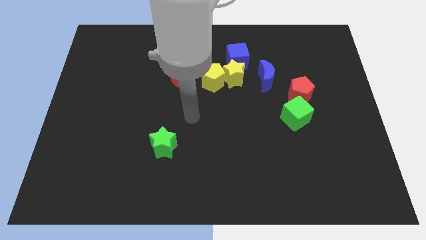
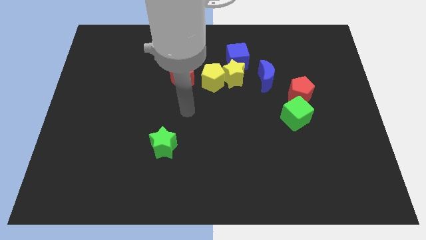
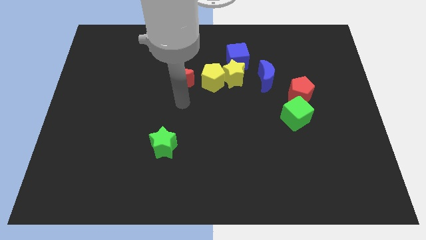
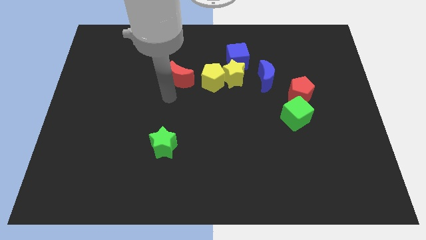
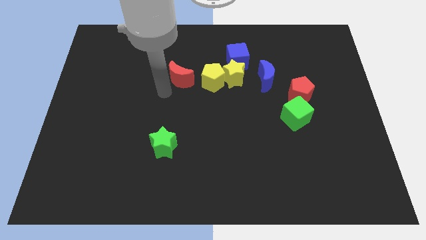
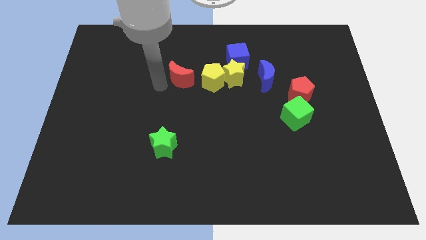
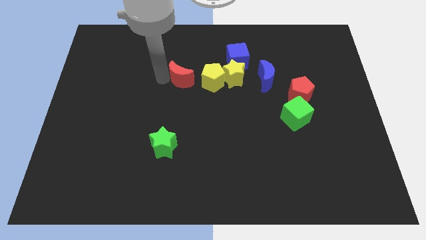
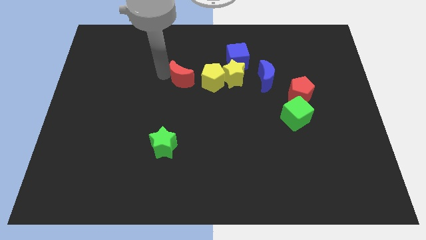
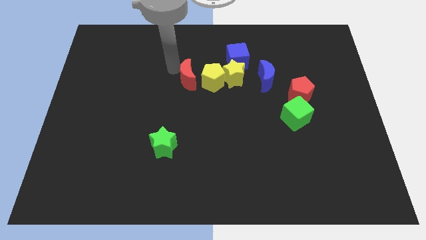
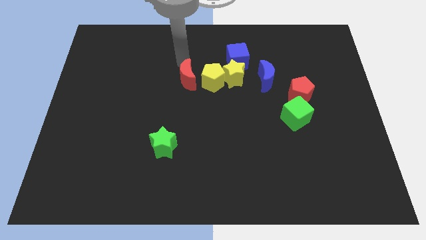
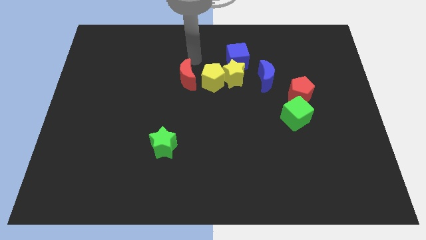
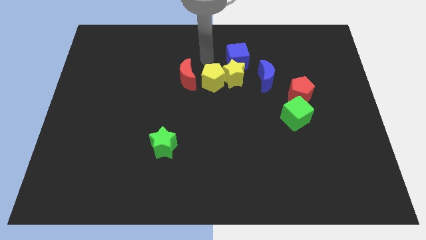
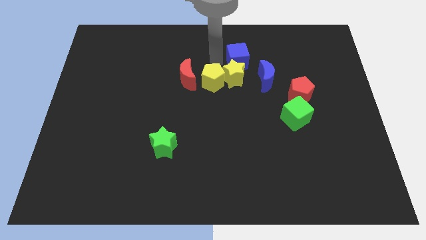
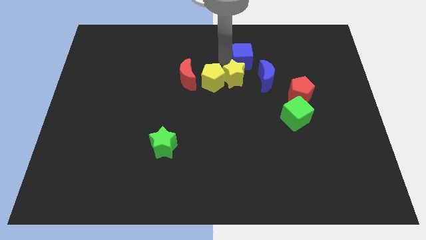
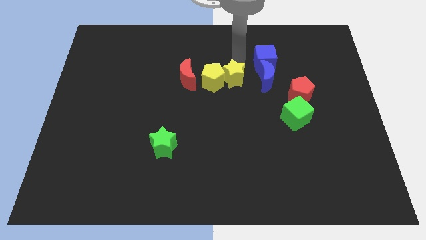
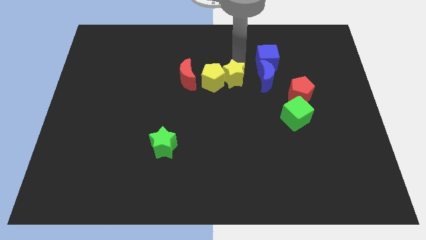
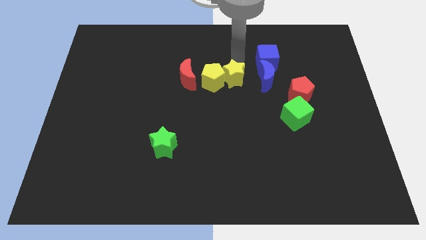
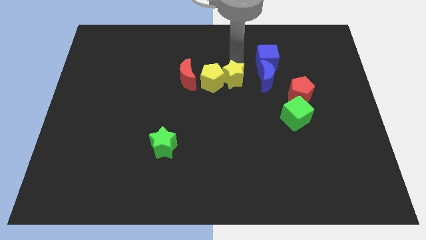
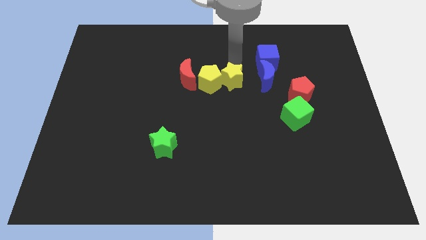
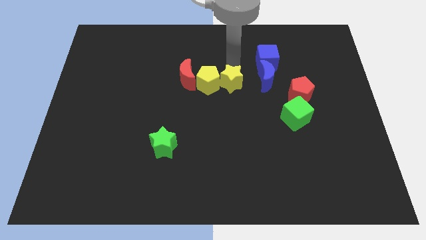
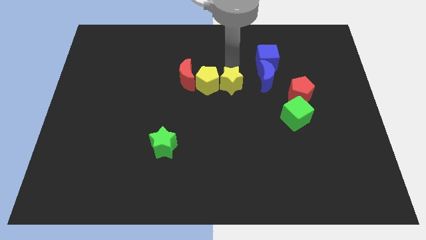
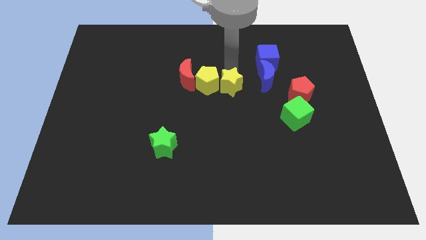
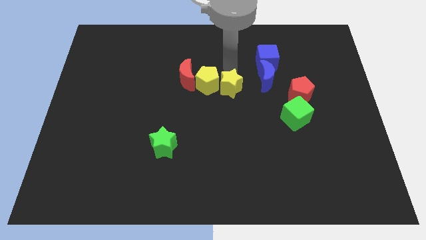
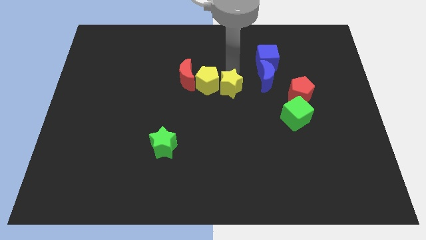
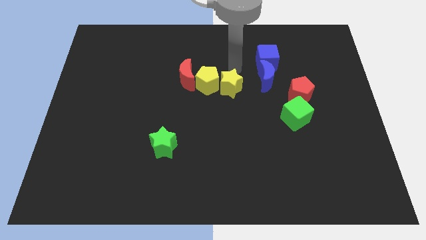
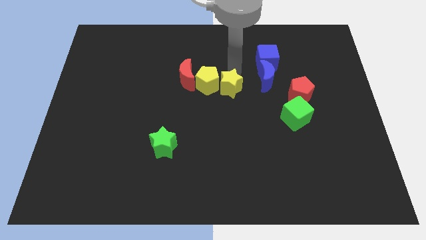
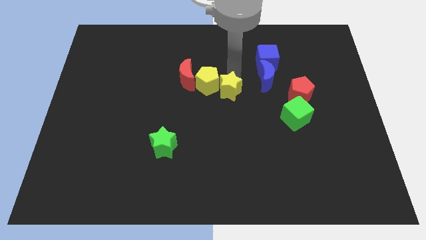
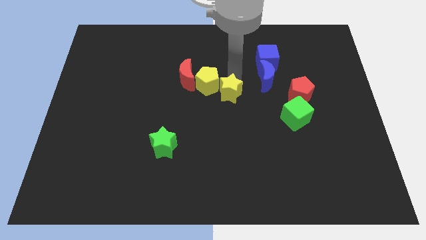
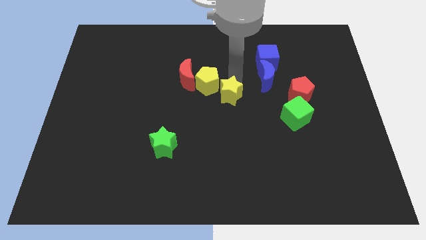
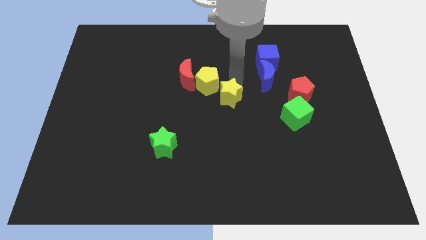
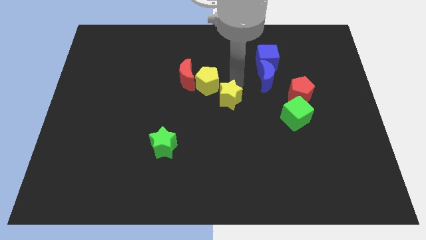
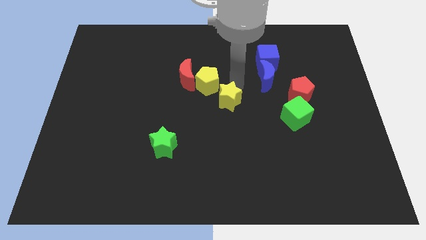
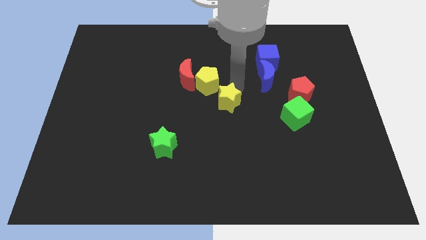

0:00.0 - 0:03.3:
separate the yellow star from the group of blocks

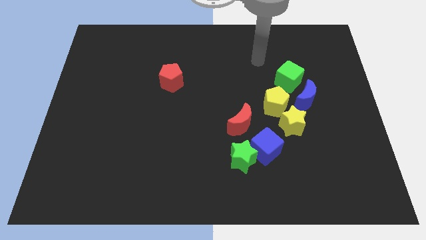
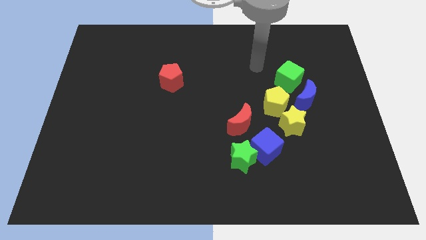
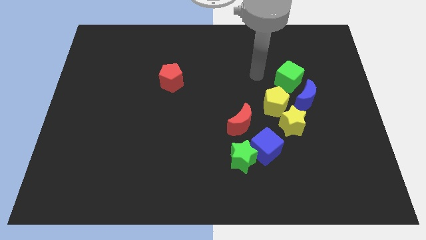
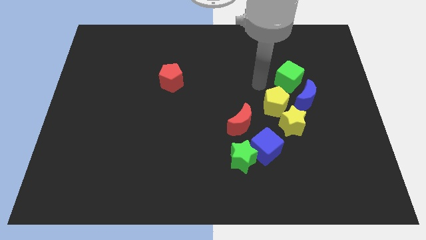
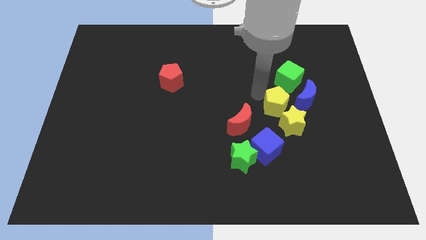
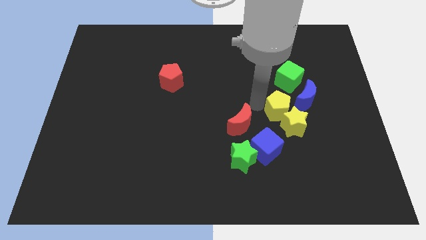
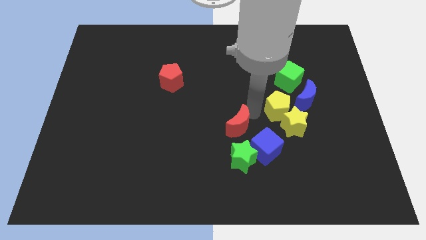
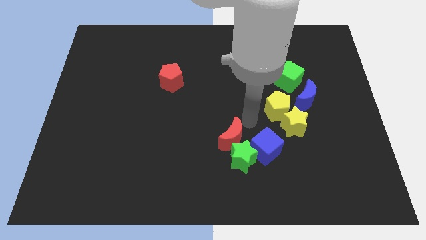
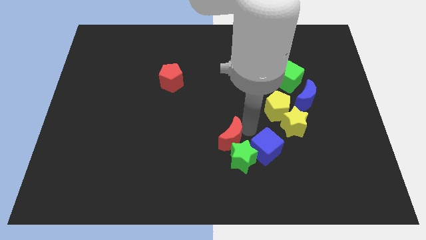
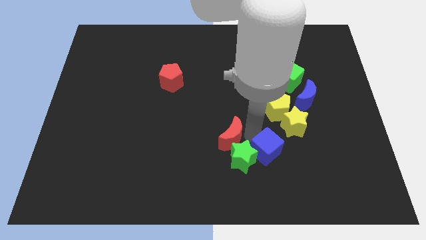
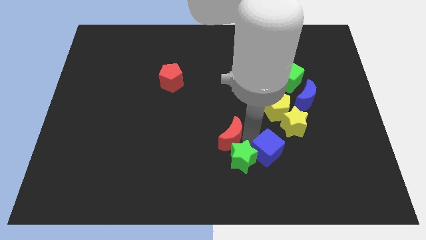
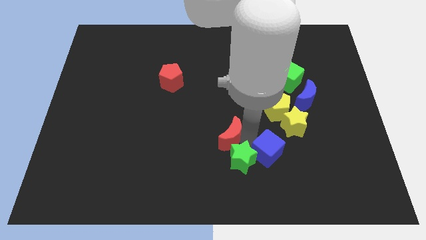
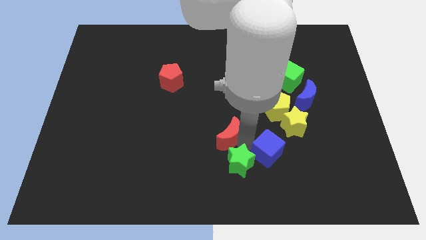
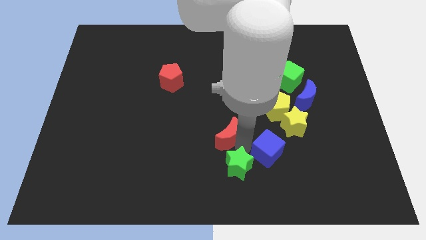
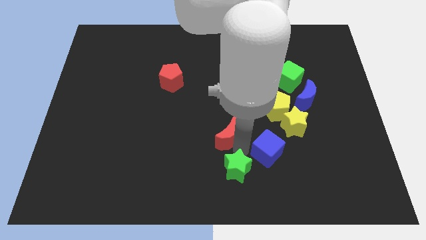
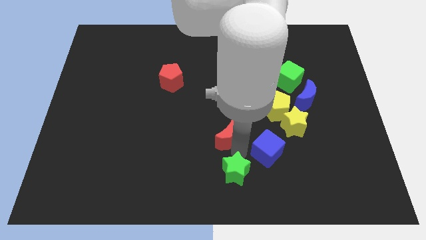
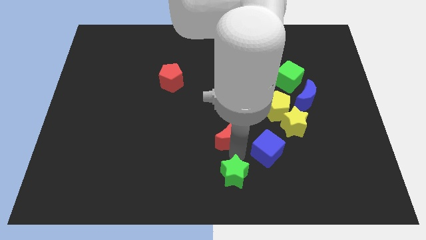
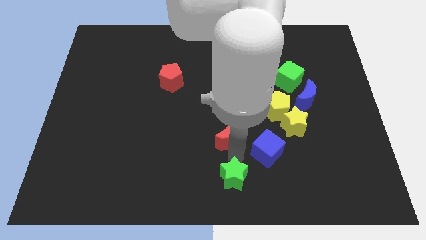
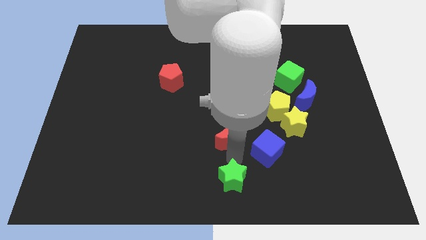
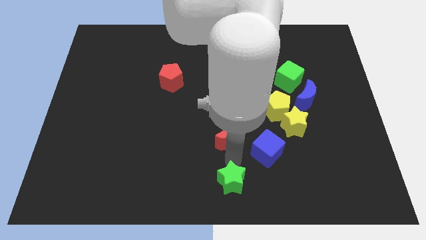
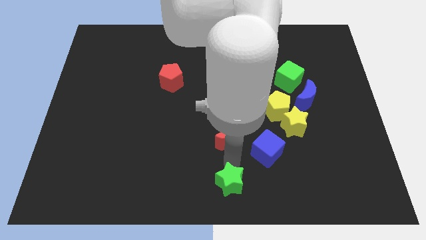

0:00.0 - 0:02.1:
pull the green star apart from the blue cube and red moon

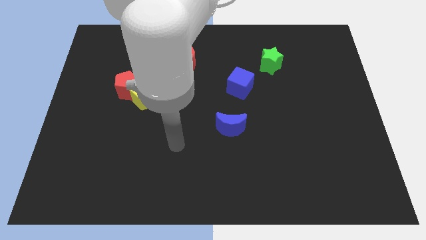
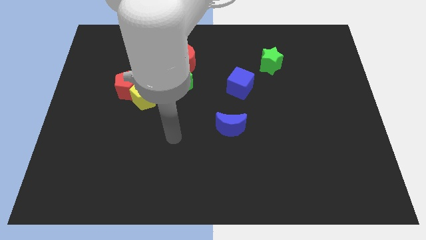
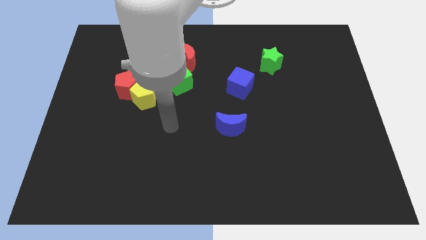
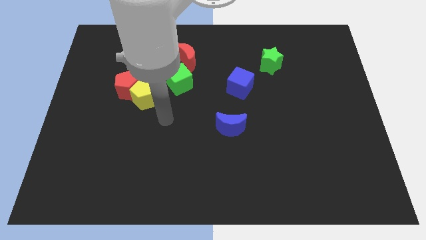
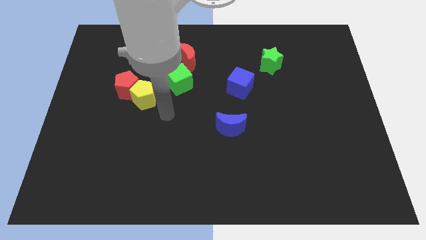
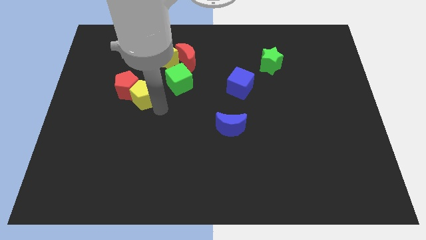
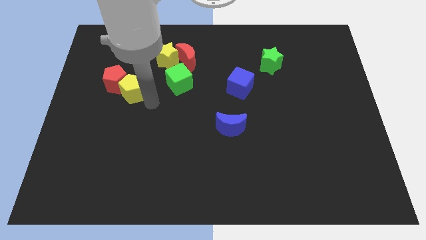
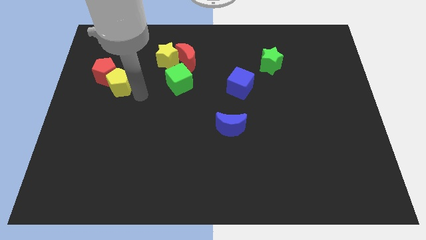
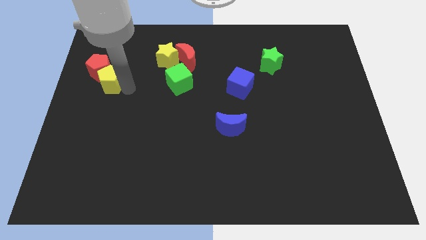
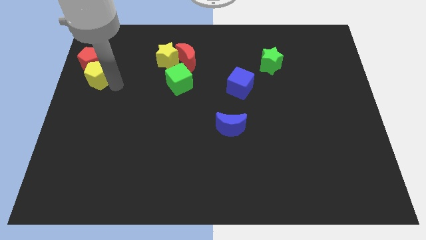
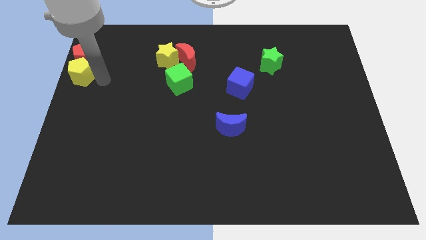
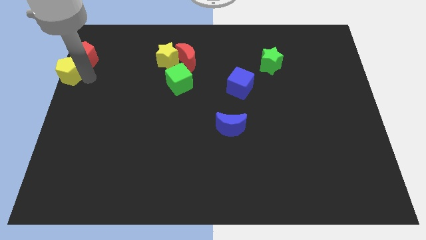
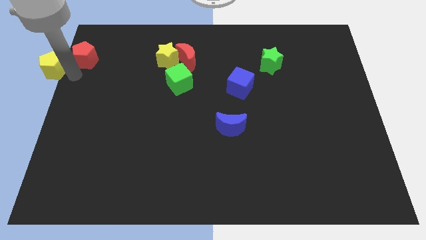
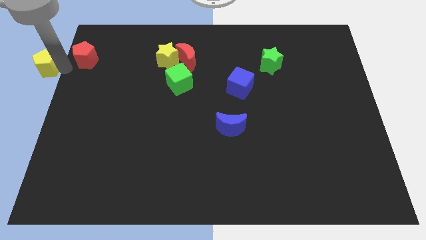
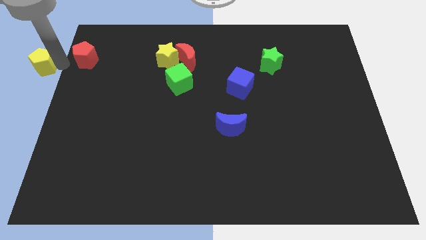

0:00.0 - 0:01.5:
separate the red pentagon from the yellow pentagon

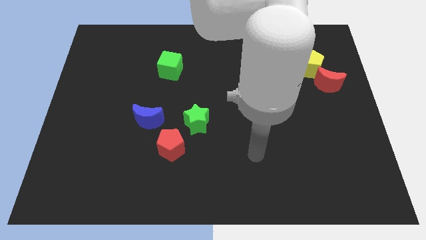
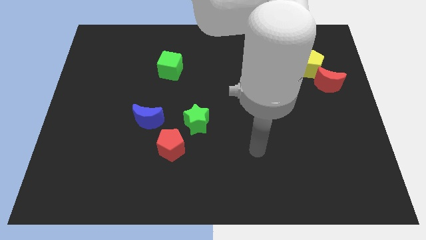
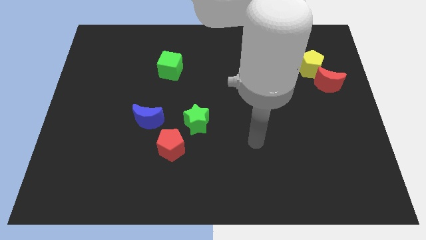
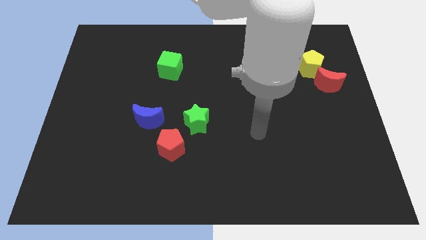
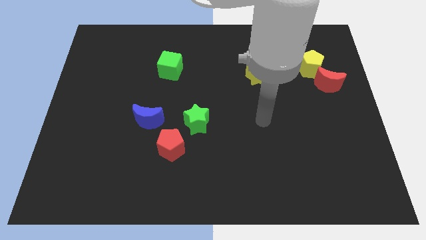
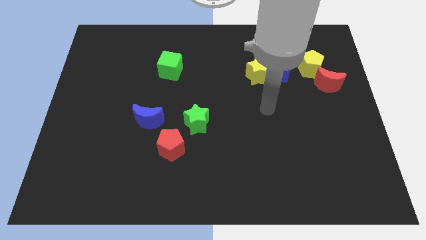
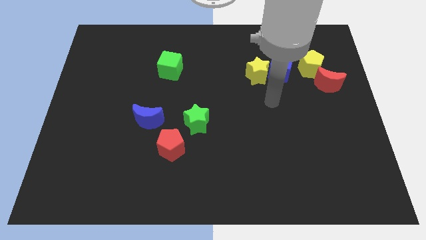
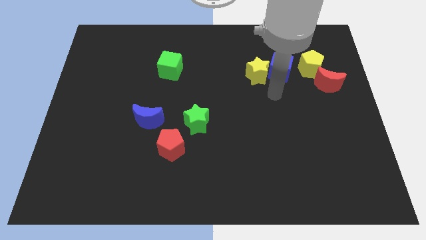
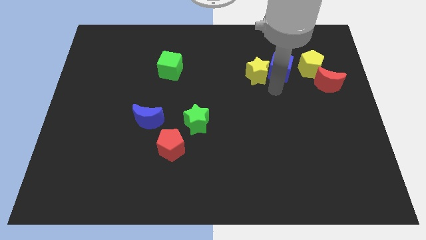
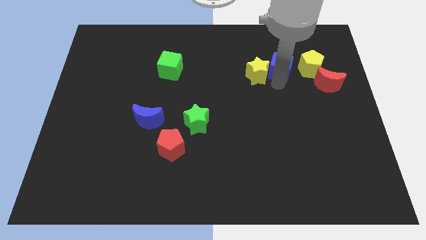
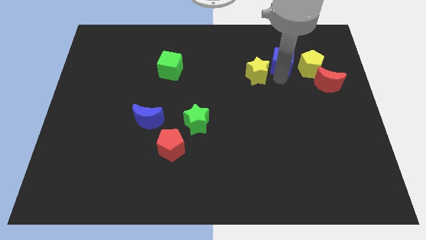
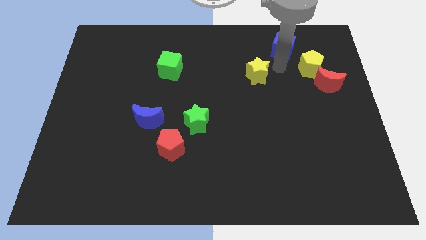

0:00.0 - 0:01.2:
separate the yellow star from the blue cube

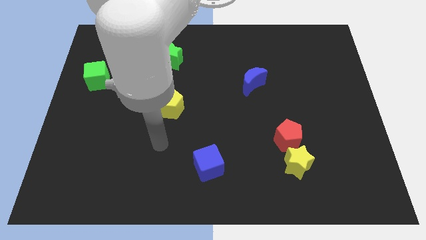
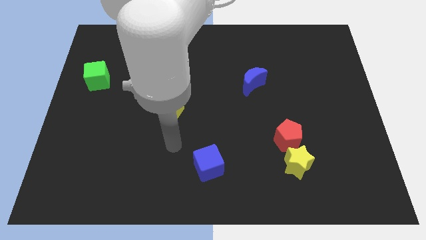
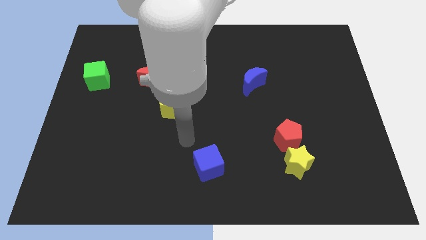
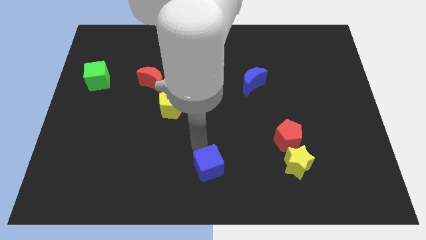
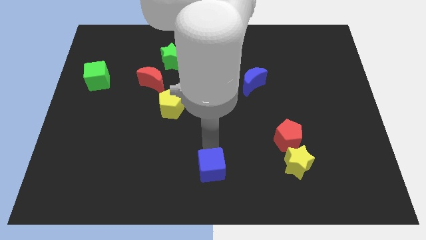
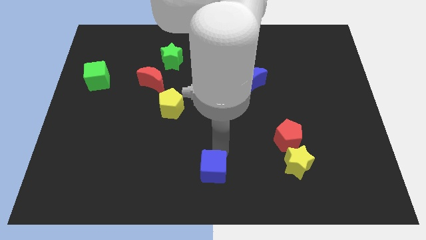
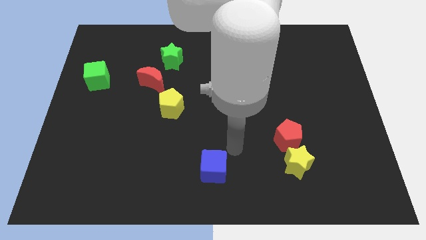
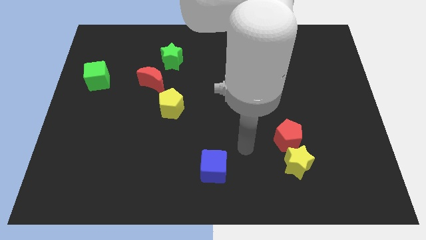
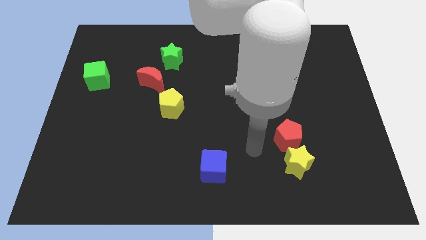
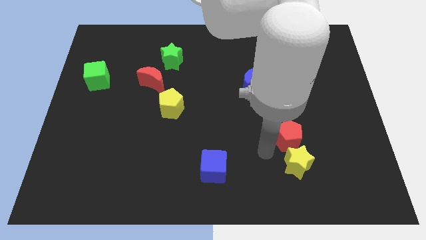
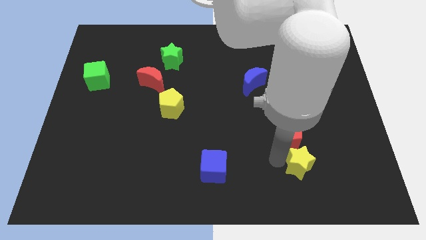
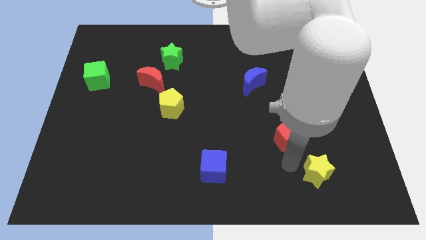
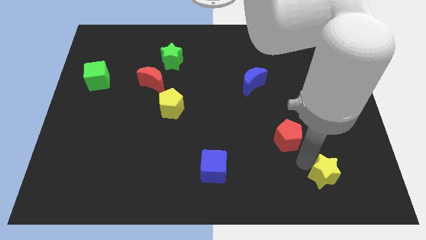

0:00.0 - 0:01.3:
separate the red pentagon from the yellow star
